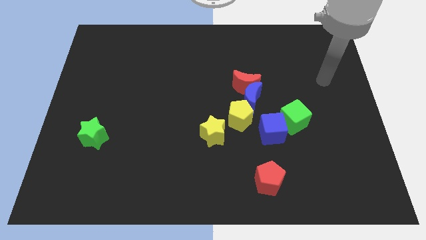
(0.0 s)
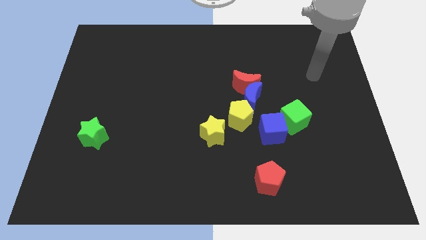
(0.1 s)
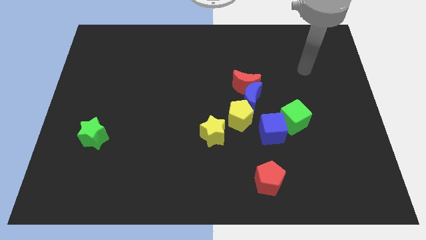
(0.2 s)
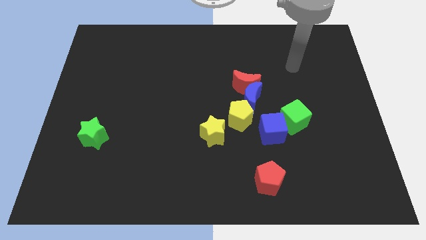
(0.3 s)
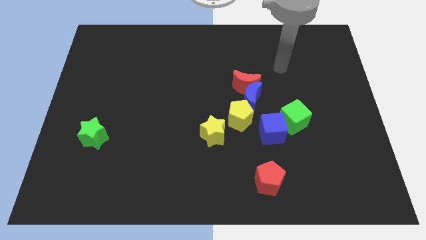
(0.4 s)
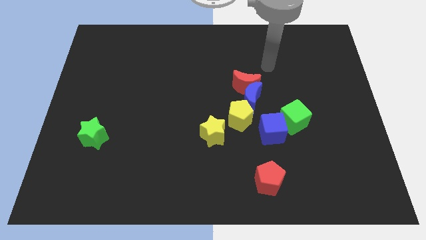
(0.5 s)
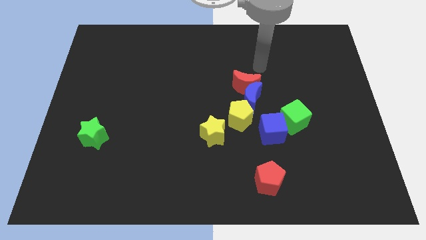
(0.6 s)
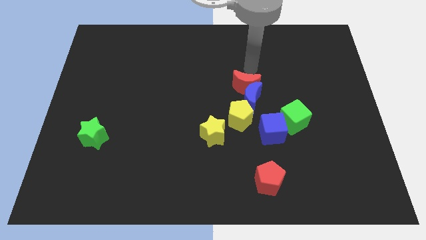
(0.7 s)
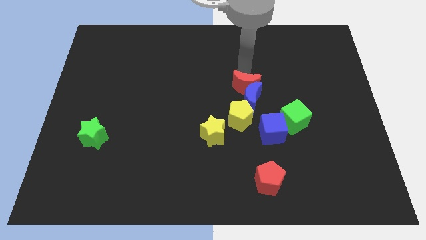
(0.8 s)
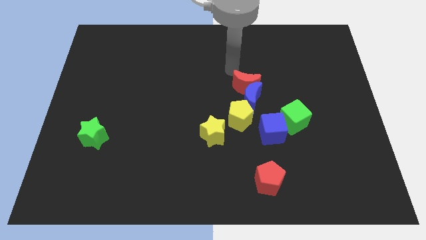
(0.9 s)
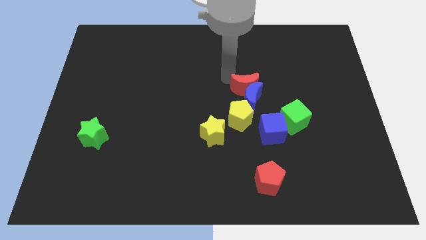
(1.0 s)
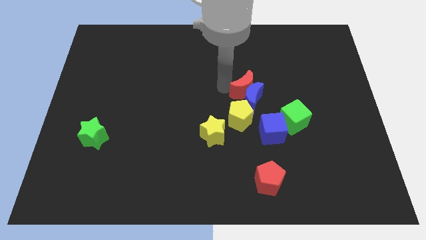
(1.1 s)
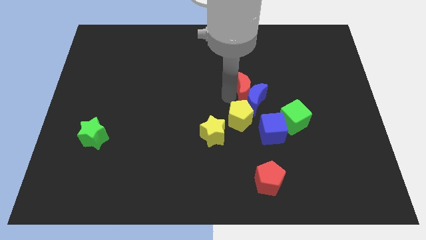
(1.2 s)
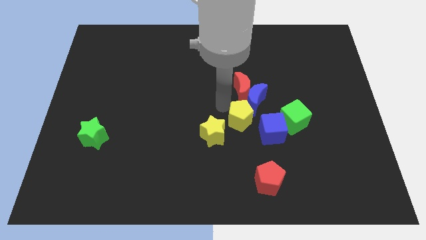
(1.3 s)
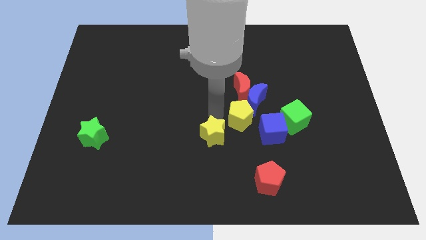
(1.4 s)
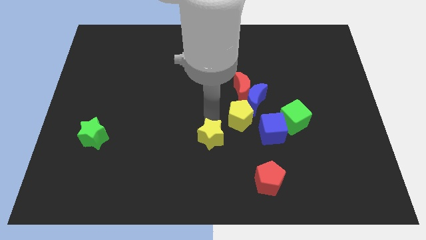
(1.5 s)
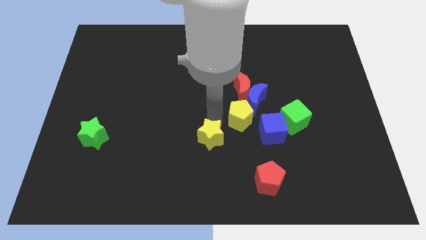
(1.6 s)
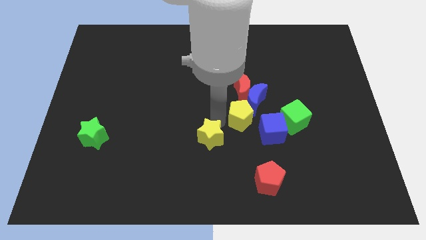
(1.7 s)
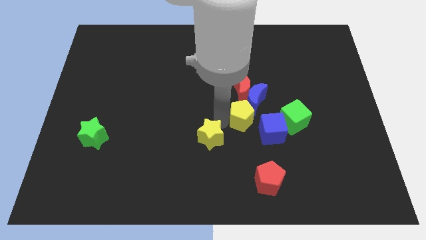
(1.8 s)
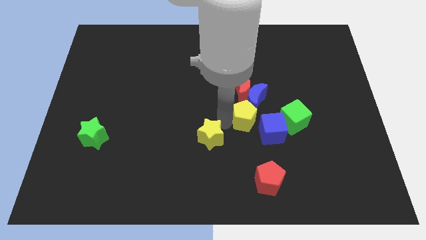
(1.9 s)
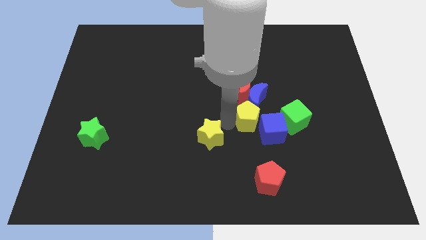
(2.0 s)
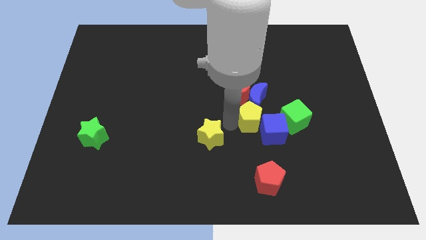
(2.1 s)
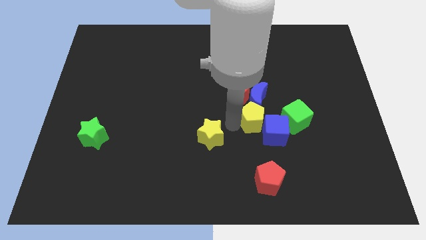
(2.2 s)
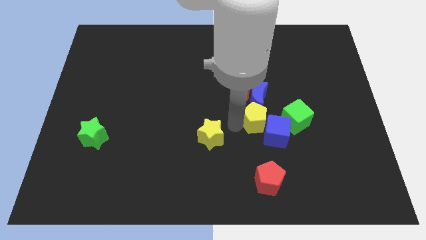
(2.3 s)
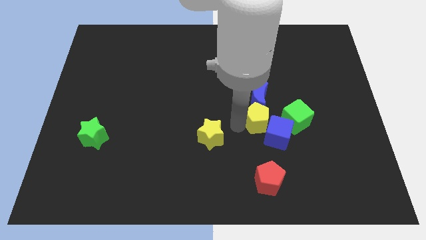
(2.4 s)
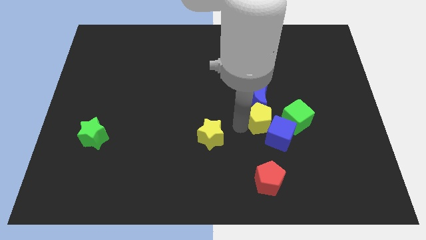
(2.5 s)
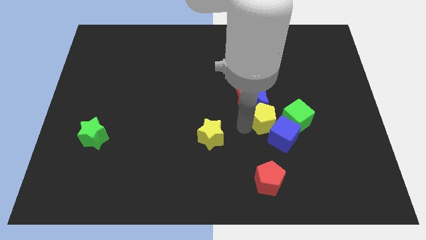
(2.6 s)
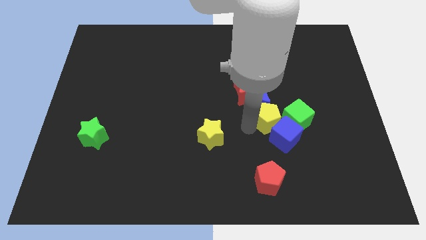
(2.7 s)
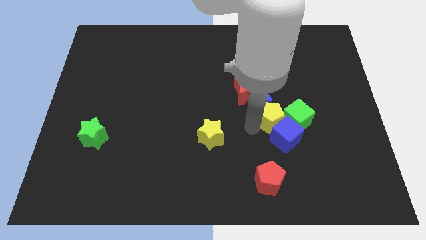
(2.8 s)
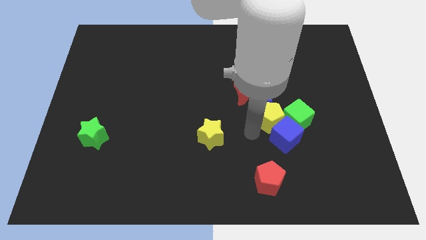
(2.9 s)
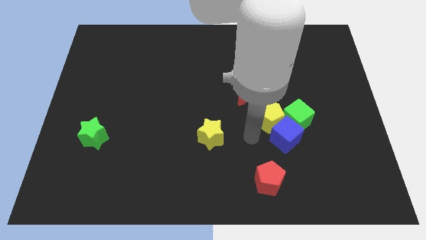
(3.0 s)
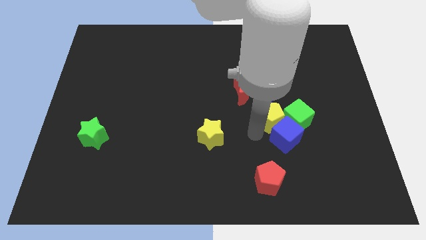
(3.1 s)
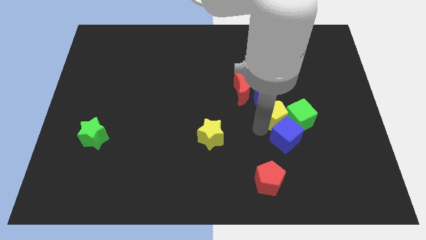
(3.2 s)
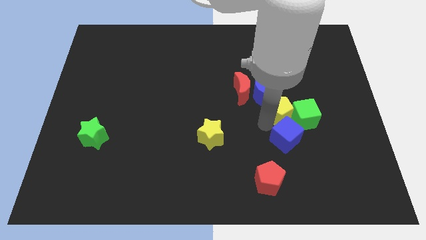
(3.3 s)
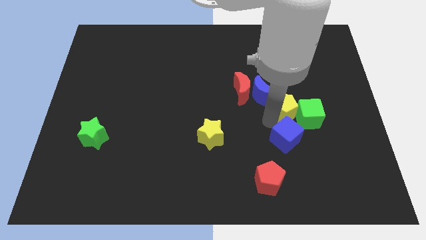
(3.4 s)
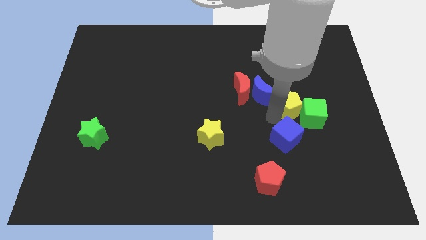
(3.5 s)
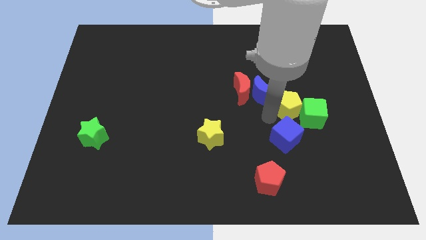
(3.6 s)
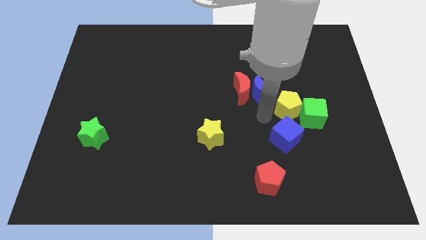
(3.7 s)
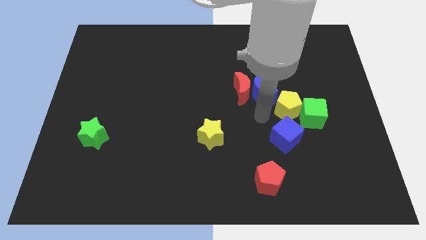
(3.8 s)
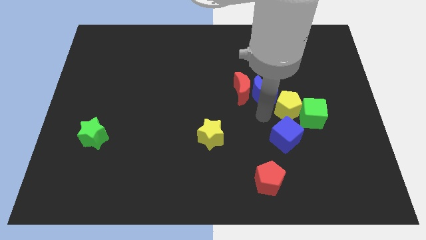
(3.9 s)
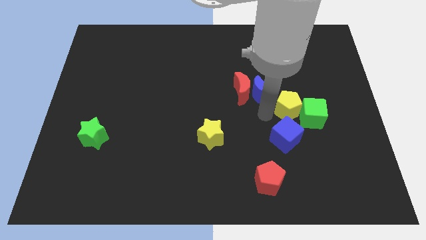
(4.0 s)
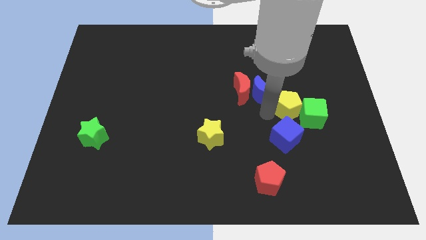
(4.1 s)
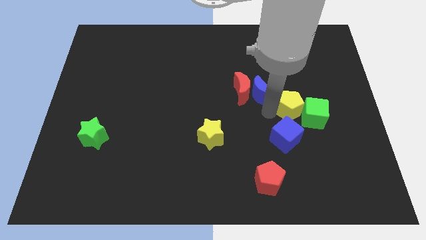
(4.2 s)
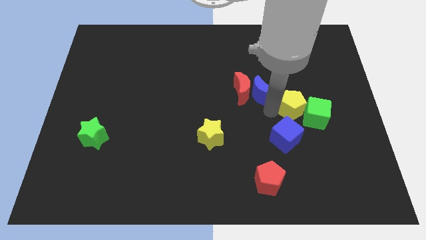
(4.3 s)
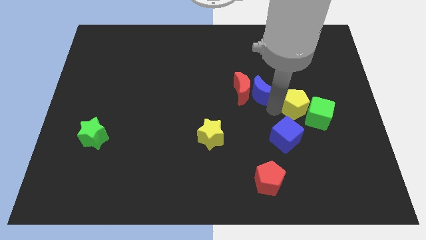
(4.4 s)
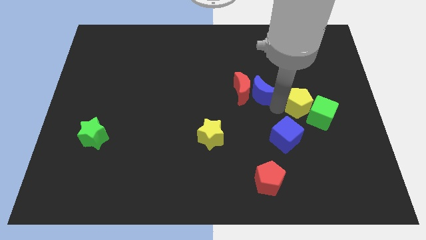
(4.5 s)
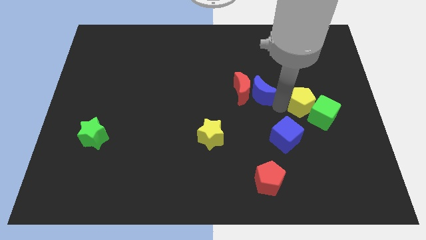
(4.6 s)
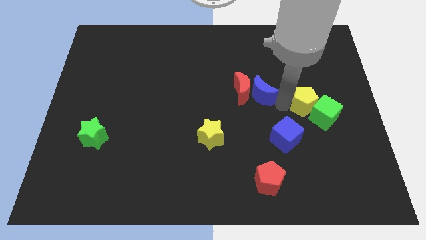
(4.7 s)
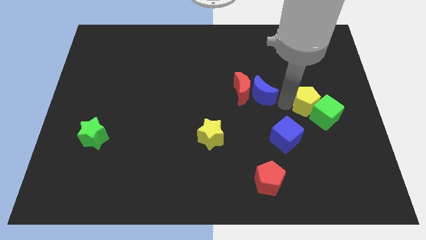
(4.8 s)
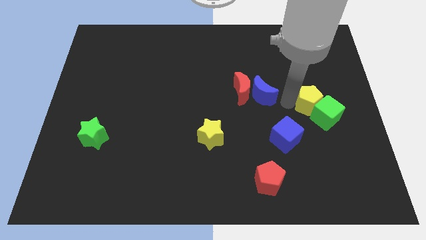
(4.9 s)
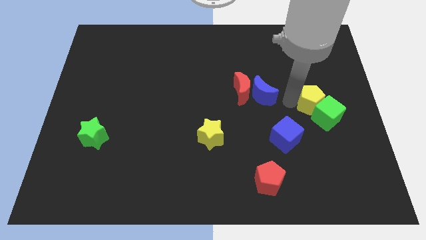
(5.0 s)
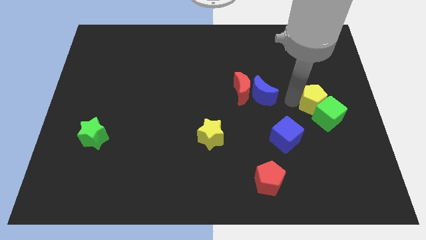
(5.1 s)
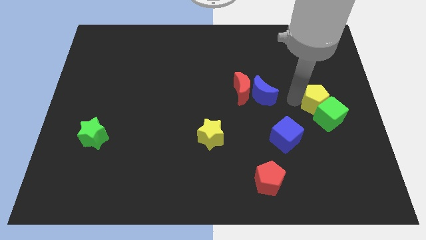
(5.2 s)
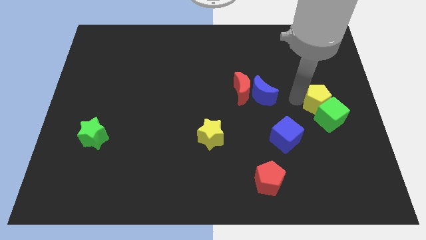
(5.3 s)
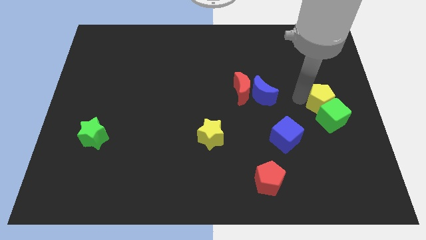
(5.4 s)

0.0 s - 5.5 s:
slide the yellow pentagon to the center right

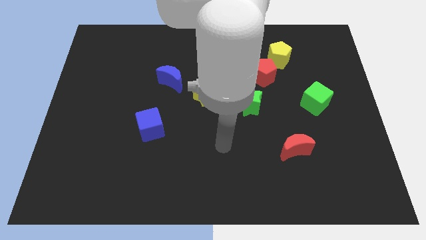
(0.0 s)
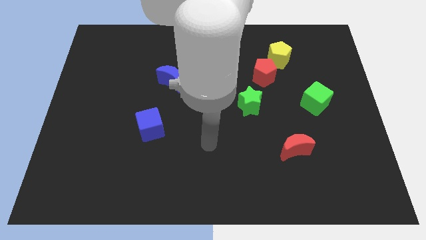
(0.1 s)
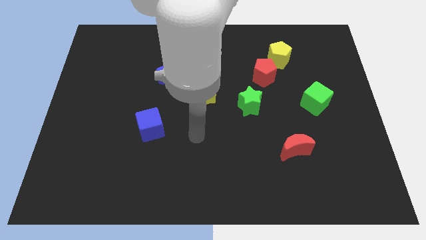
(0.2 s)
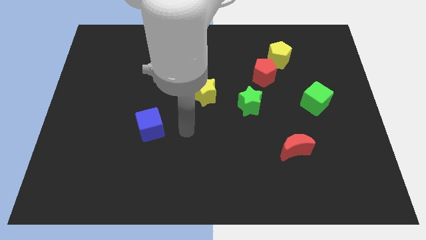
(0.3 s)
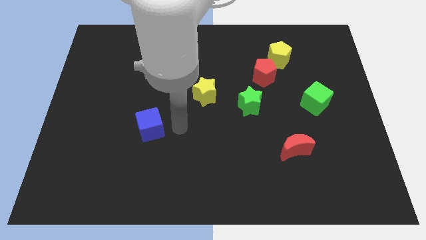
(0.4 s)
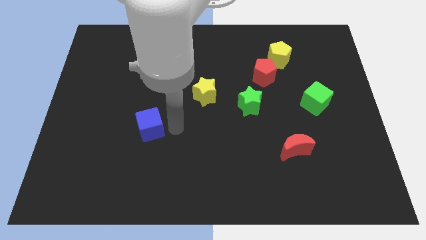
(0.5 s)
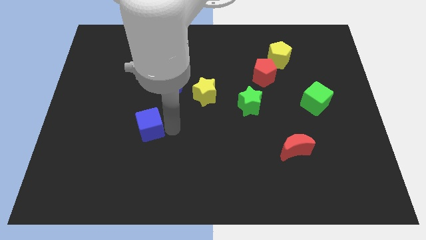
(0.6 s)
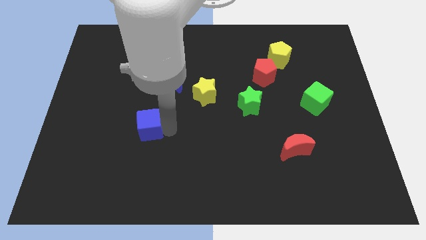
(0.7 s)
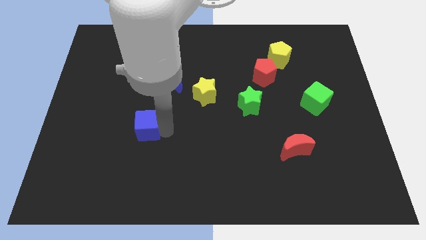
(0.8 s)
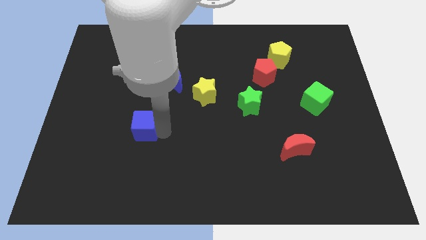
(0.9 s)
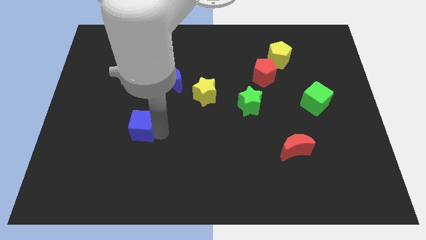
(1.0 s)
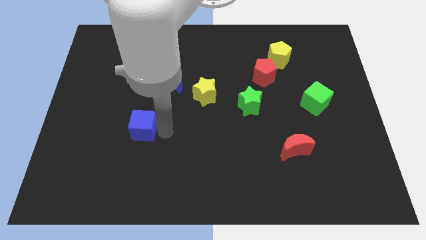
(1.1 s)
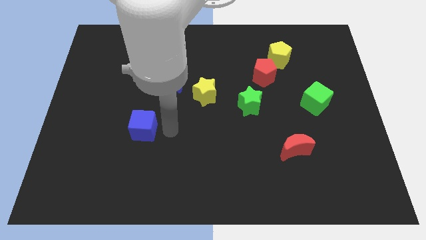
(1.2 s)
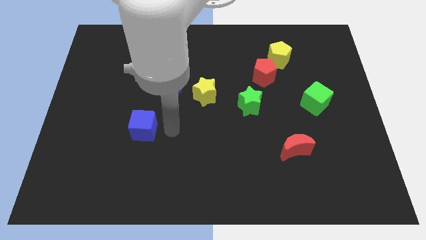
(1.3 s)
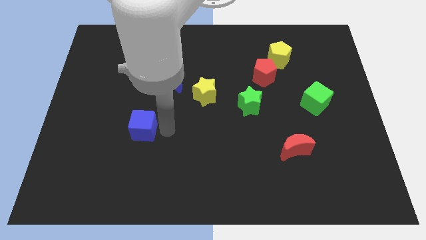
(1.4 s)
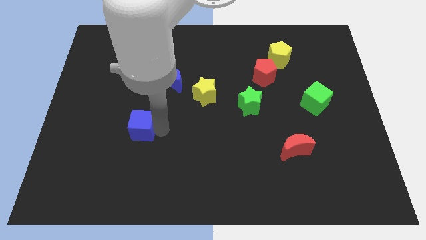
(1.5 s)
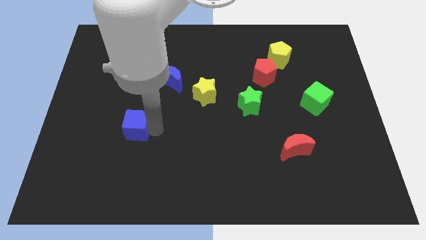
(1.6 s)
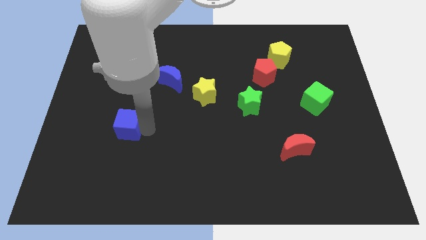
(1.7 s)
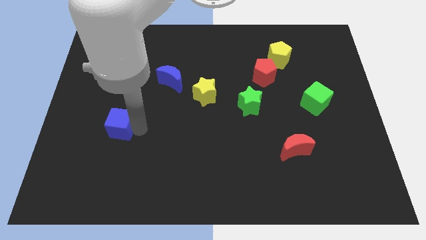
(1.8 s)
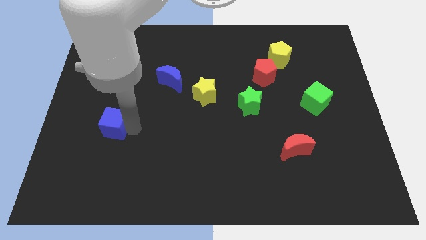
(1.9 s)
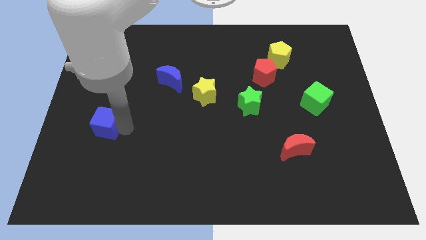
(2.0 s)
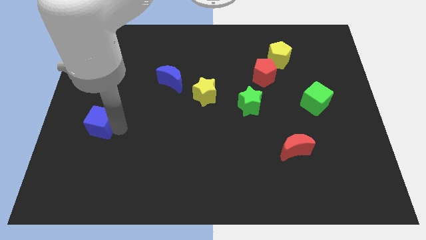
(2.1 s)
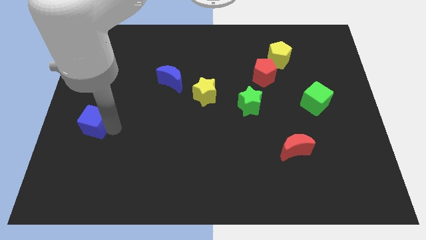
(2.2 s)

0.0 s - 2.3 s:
push the blue cube to the center left

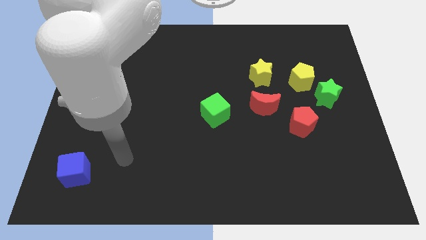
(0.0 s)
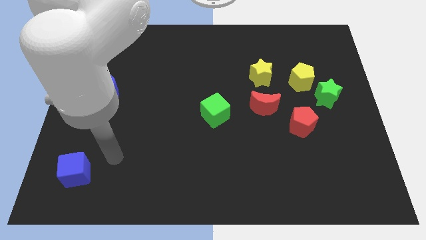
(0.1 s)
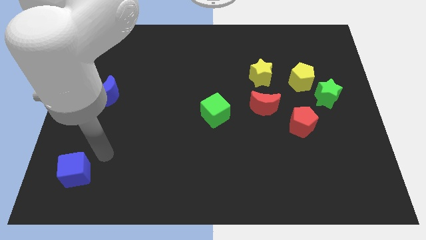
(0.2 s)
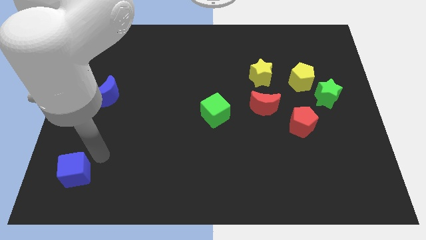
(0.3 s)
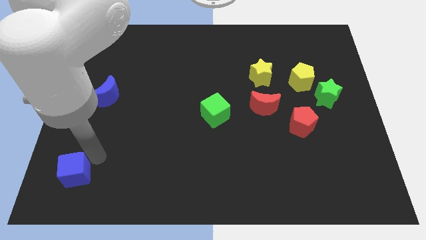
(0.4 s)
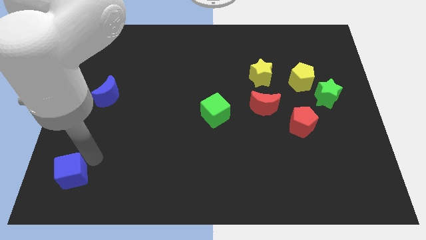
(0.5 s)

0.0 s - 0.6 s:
slide the blue cube to the lower left corner
